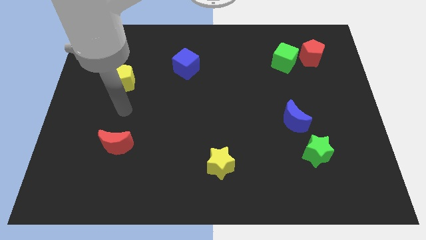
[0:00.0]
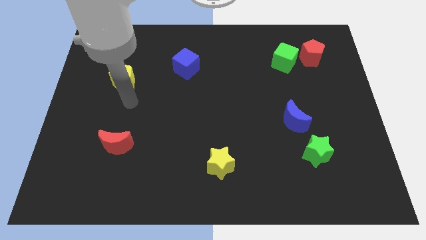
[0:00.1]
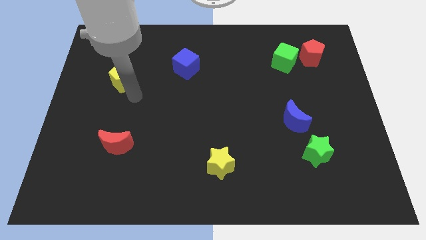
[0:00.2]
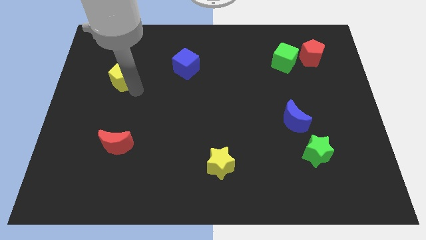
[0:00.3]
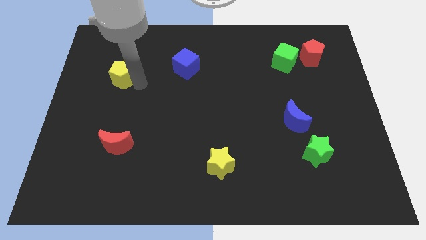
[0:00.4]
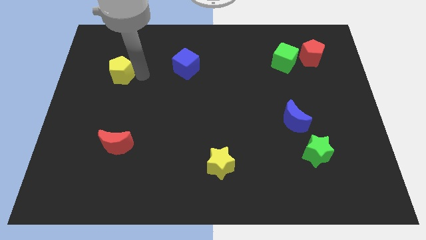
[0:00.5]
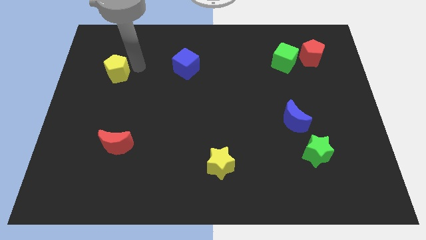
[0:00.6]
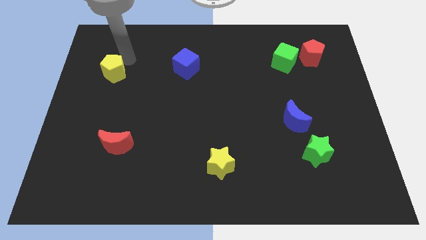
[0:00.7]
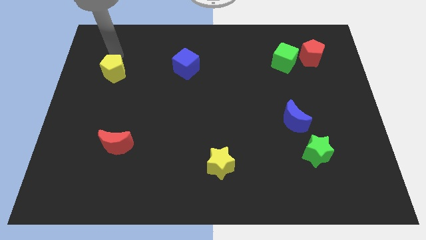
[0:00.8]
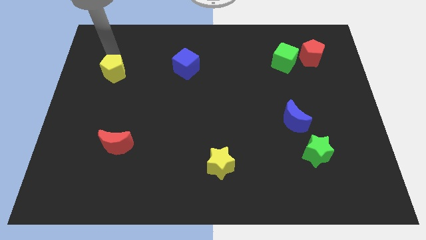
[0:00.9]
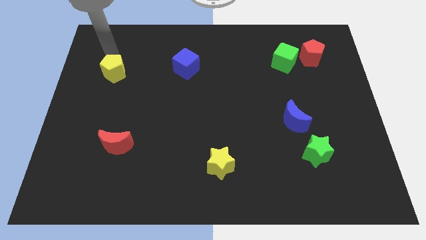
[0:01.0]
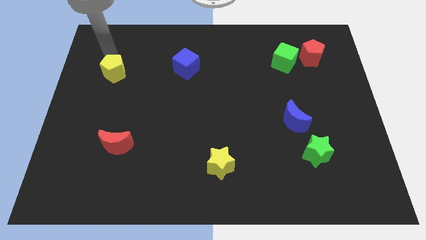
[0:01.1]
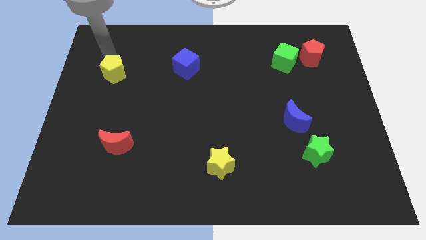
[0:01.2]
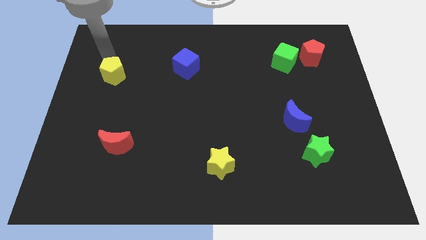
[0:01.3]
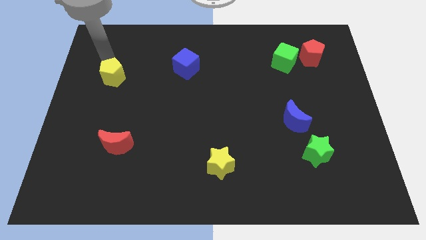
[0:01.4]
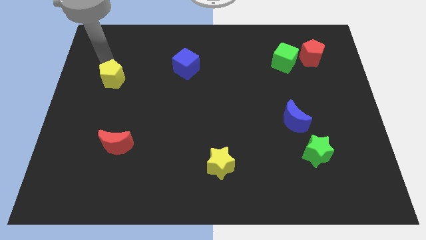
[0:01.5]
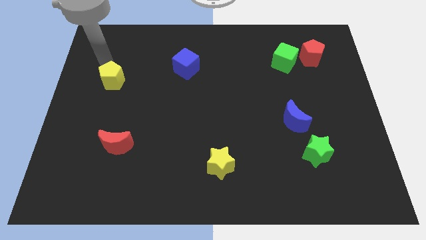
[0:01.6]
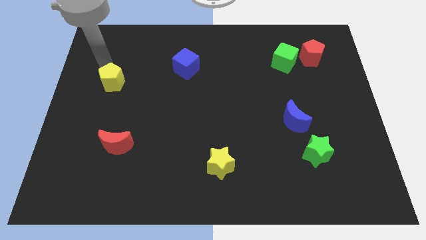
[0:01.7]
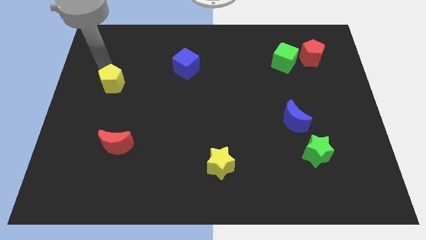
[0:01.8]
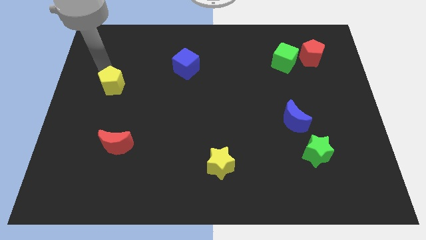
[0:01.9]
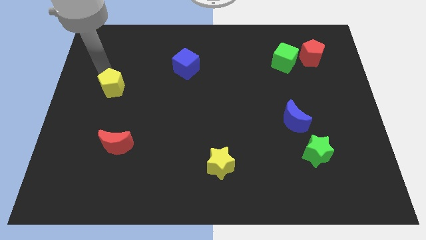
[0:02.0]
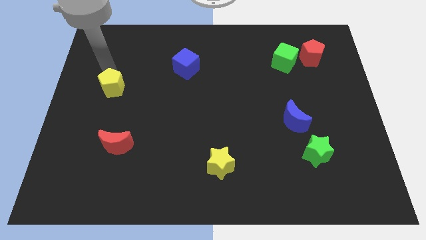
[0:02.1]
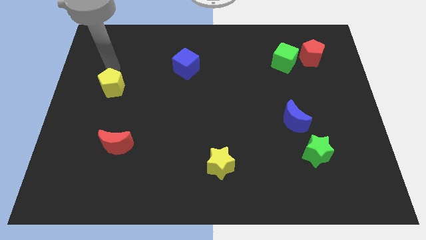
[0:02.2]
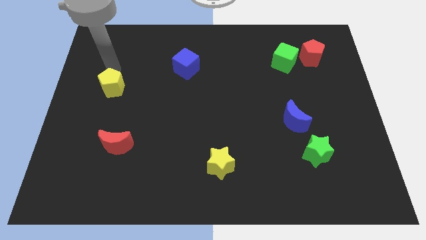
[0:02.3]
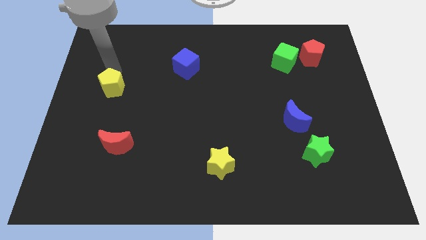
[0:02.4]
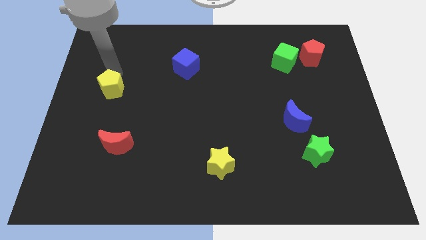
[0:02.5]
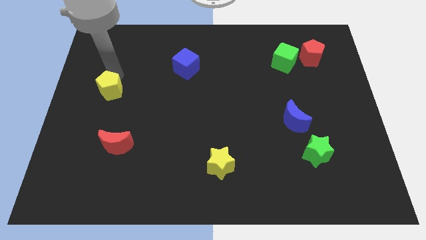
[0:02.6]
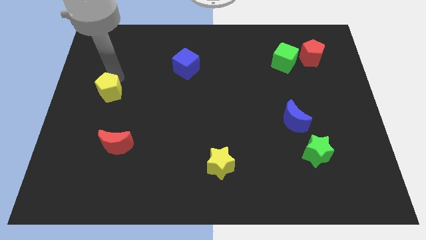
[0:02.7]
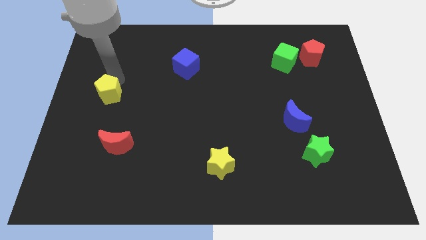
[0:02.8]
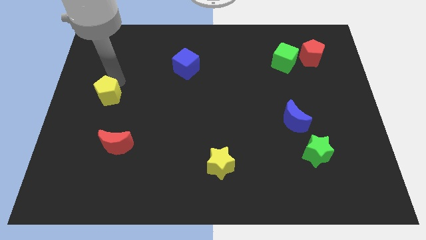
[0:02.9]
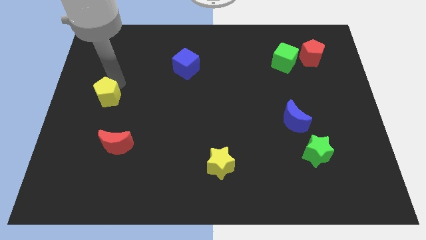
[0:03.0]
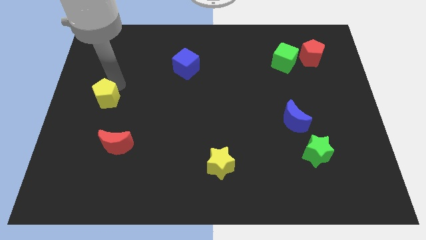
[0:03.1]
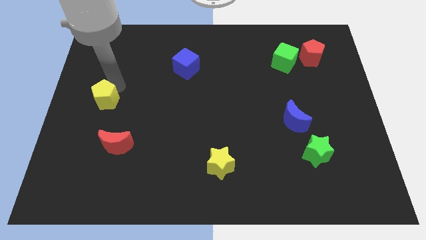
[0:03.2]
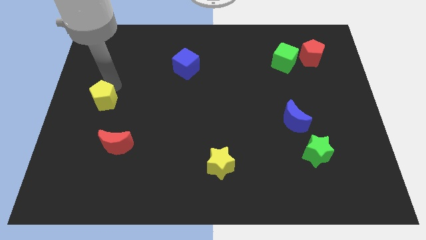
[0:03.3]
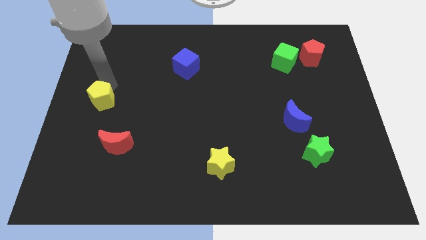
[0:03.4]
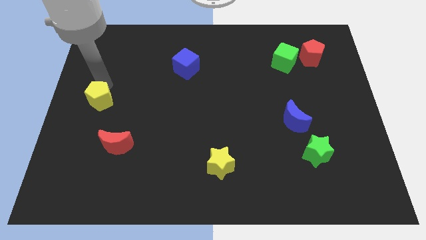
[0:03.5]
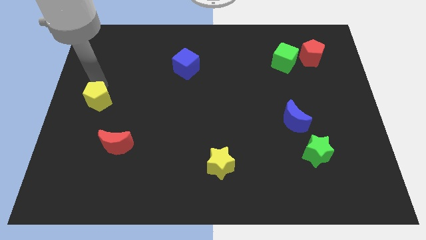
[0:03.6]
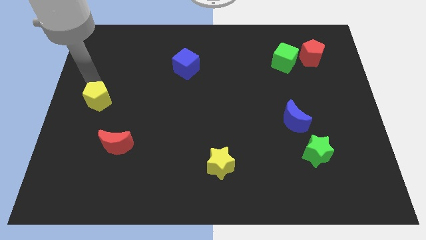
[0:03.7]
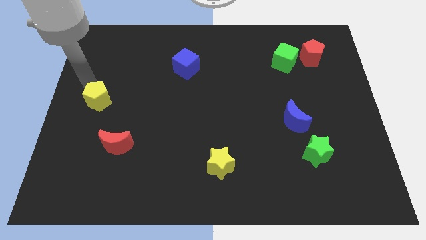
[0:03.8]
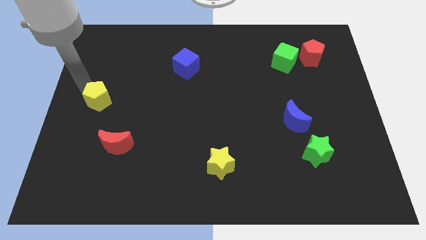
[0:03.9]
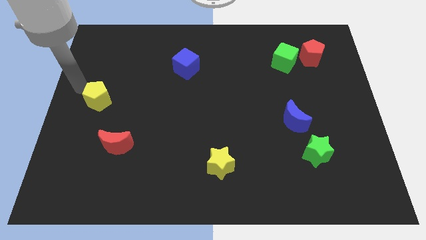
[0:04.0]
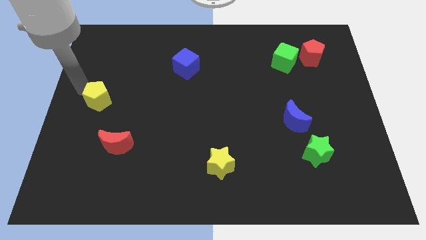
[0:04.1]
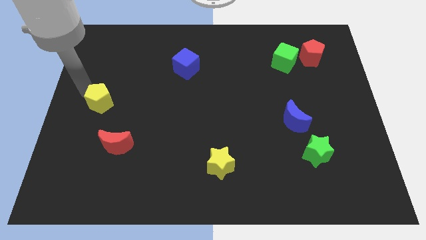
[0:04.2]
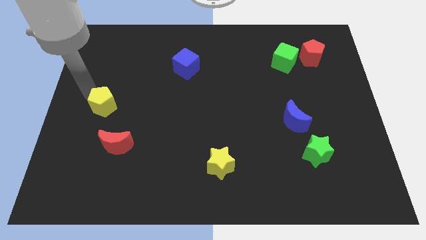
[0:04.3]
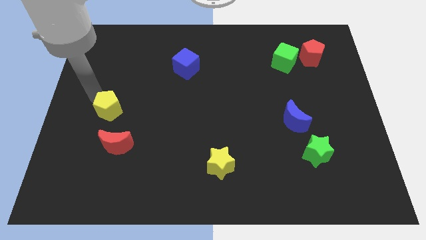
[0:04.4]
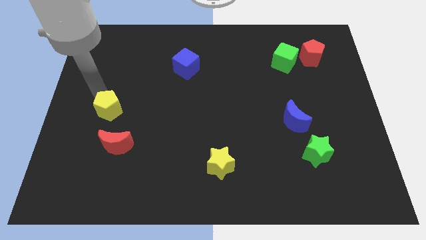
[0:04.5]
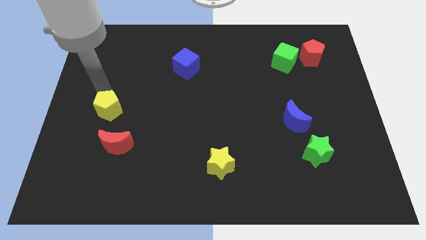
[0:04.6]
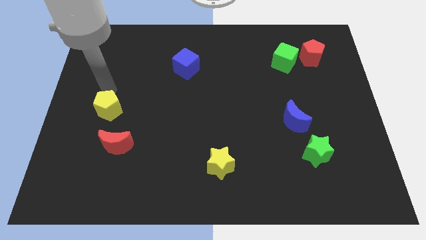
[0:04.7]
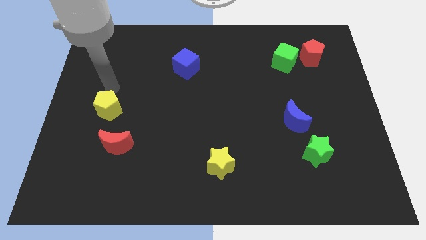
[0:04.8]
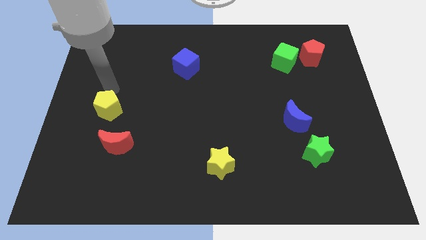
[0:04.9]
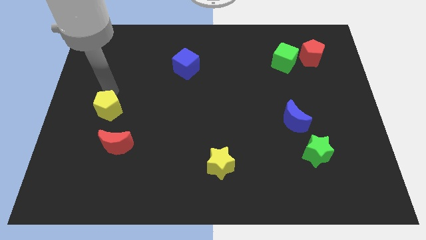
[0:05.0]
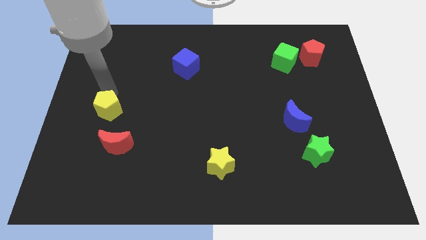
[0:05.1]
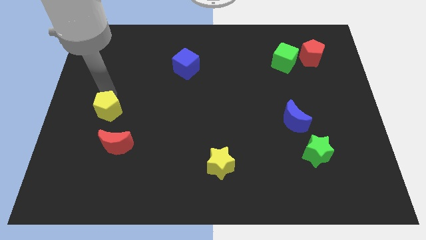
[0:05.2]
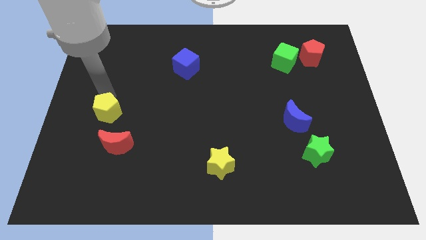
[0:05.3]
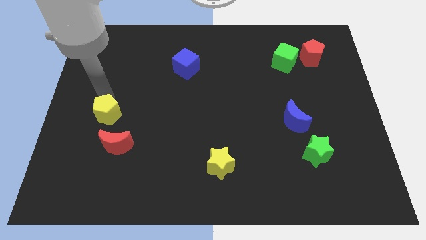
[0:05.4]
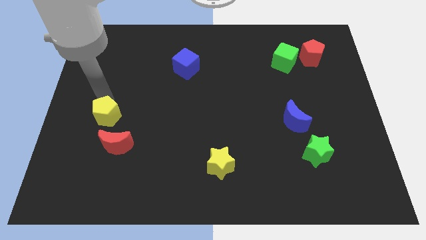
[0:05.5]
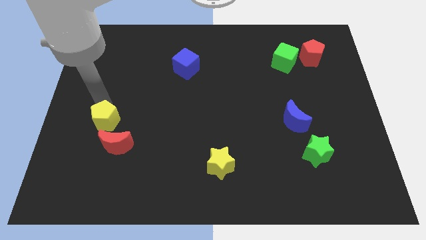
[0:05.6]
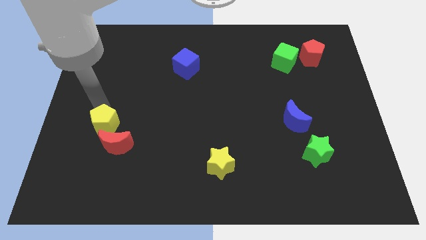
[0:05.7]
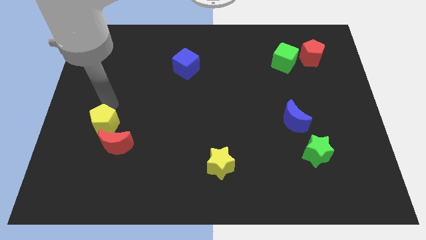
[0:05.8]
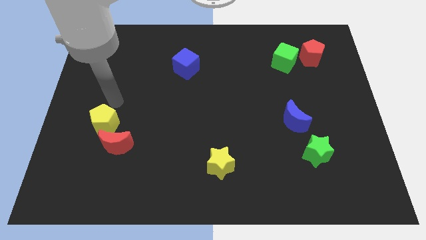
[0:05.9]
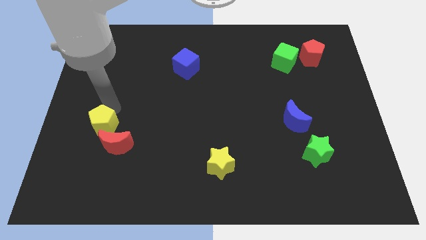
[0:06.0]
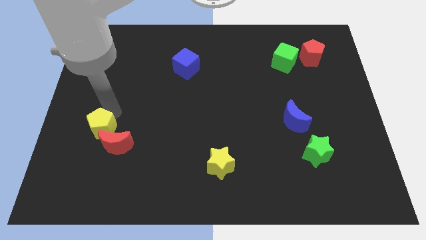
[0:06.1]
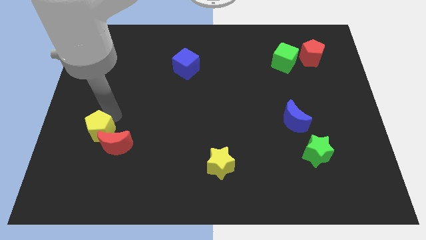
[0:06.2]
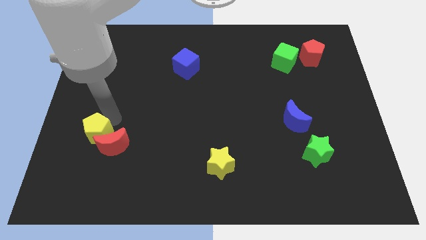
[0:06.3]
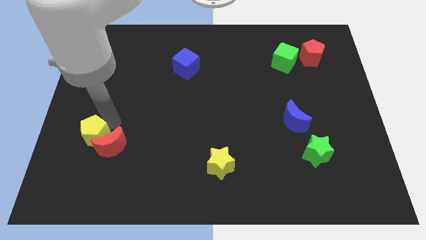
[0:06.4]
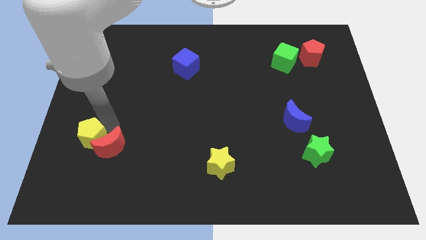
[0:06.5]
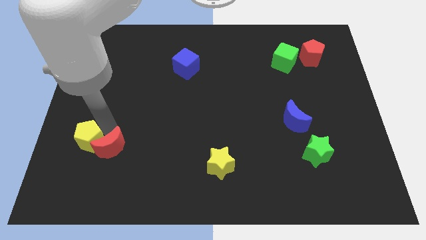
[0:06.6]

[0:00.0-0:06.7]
push the yellow pentagon diagonally down and to the left of the red moon
